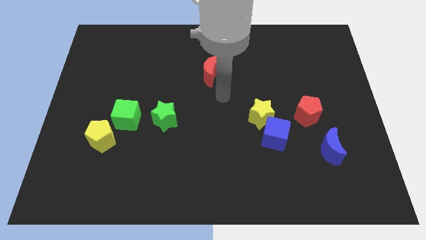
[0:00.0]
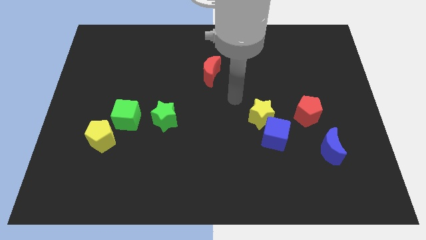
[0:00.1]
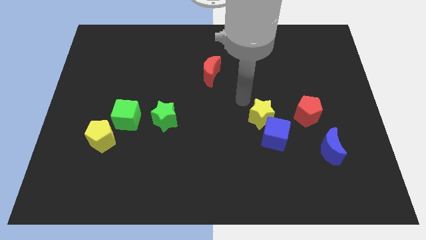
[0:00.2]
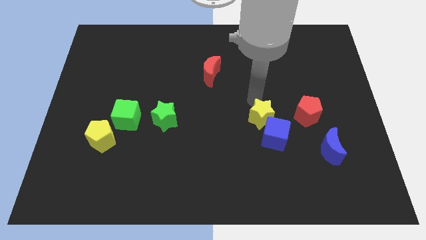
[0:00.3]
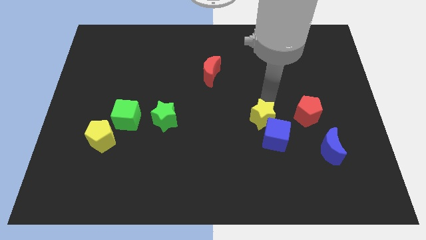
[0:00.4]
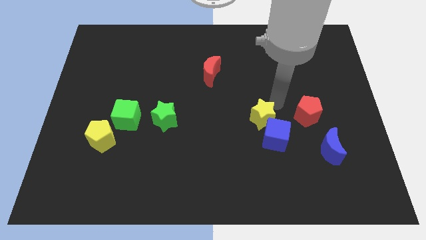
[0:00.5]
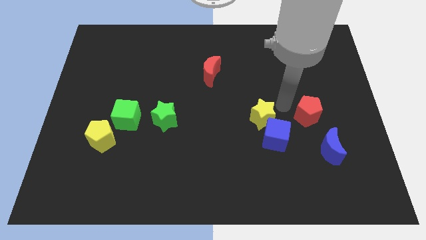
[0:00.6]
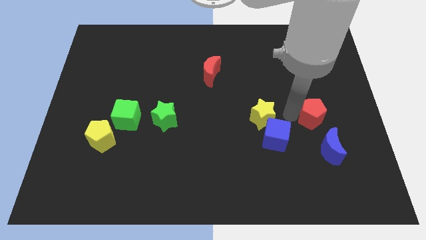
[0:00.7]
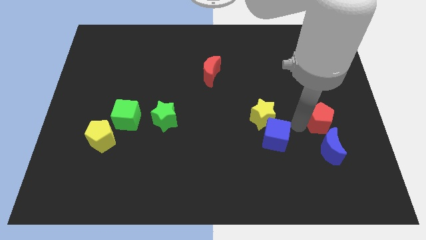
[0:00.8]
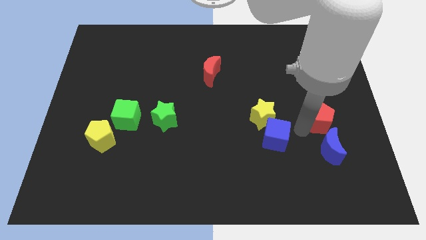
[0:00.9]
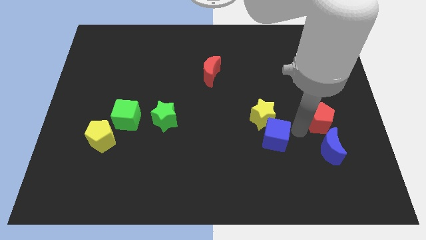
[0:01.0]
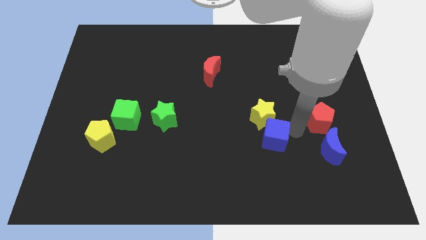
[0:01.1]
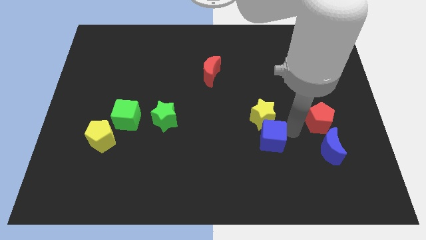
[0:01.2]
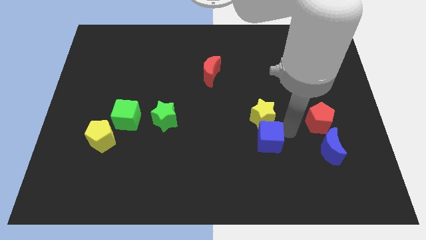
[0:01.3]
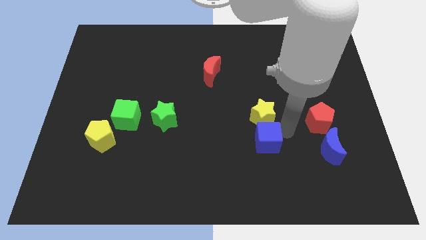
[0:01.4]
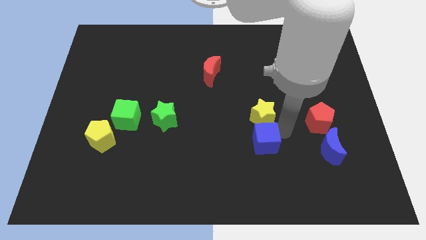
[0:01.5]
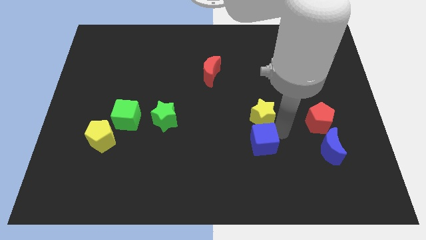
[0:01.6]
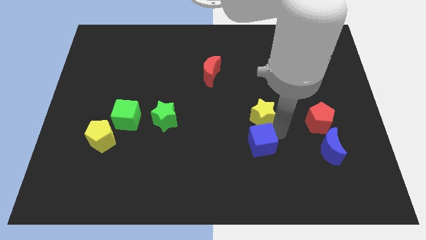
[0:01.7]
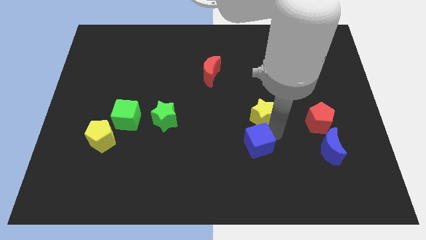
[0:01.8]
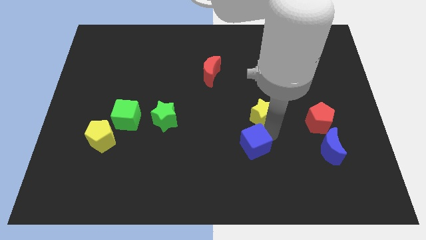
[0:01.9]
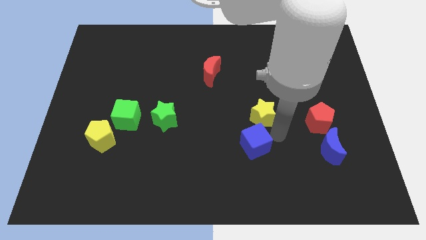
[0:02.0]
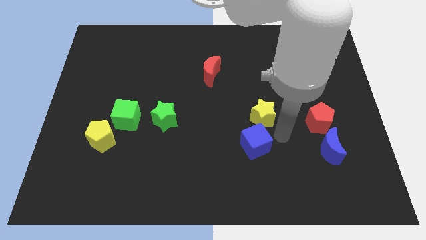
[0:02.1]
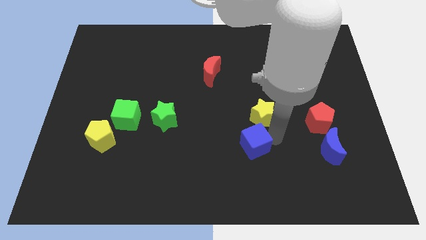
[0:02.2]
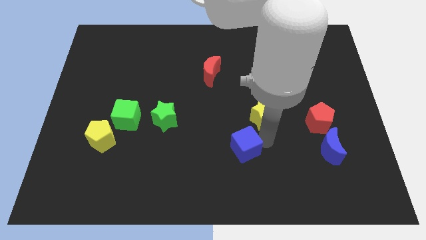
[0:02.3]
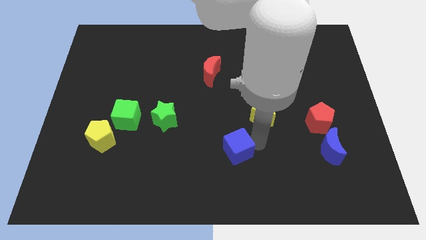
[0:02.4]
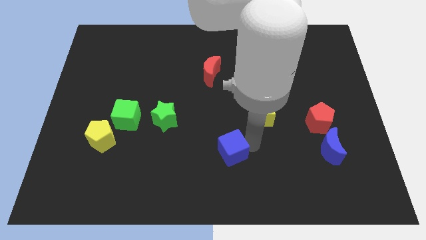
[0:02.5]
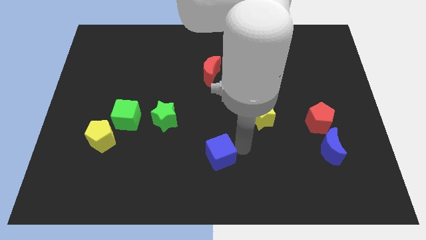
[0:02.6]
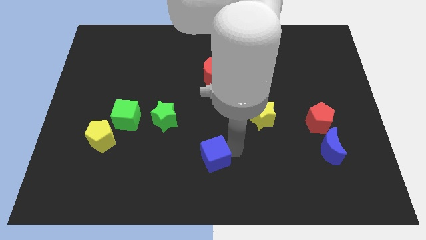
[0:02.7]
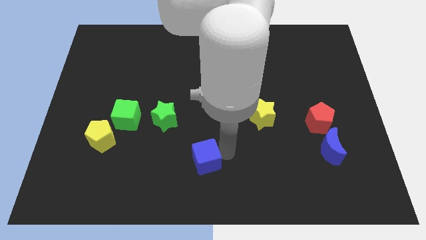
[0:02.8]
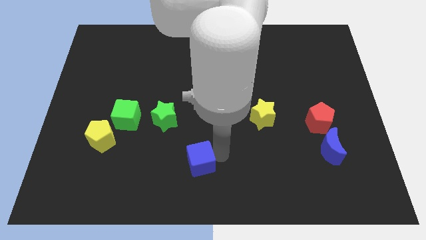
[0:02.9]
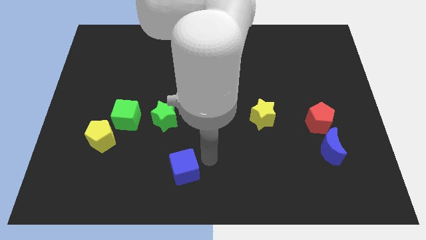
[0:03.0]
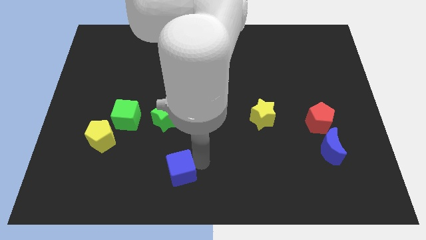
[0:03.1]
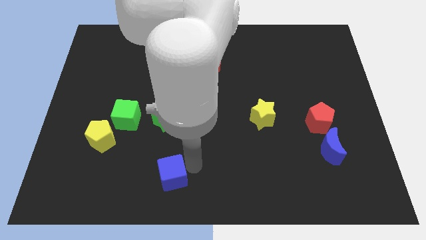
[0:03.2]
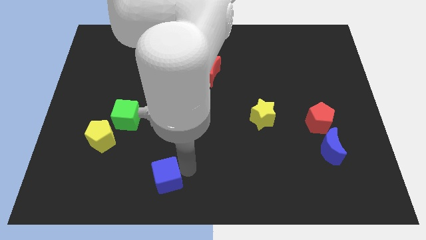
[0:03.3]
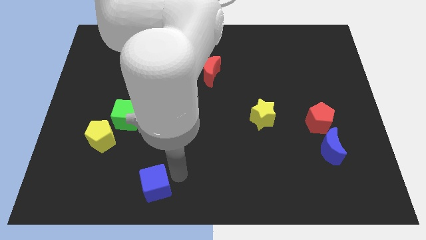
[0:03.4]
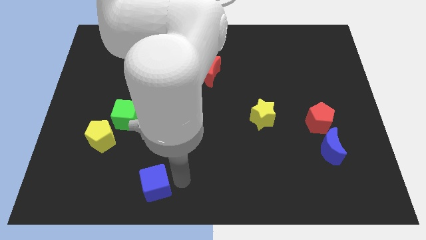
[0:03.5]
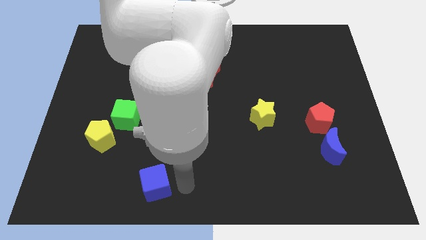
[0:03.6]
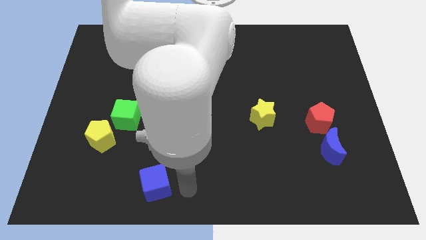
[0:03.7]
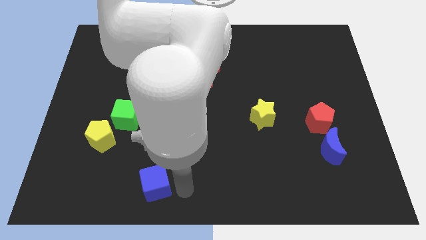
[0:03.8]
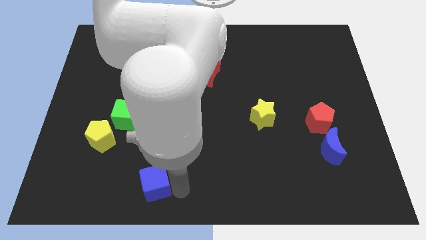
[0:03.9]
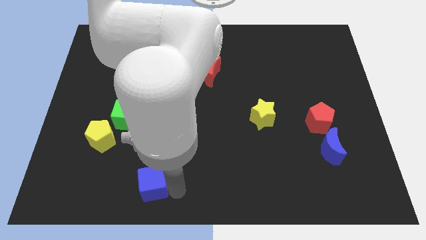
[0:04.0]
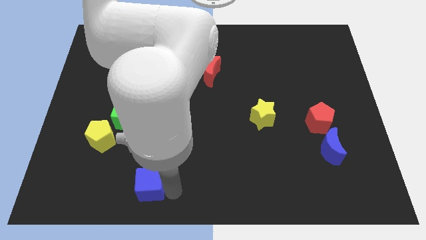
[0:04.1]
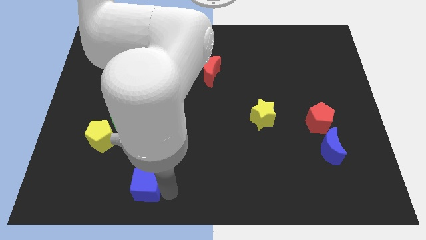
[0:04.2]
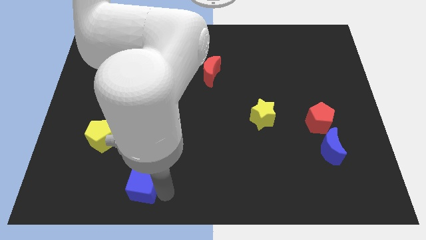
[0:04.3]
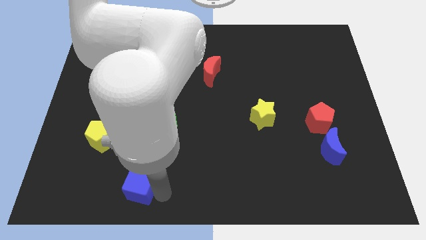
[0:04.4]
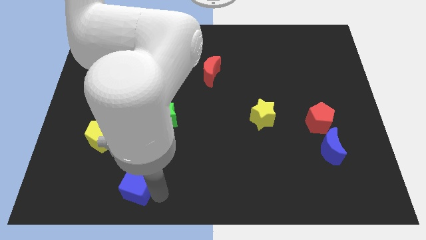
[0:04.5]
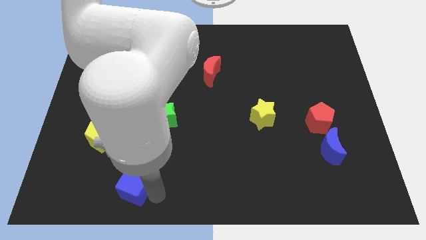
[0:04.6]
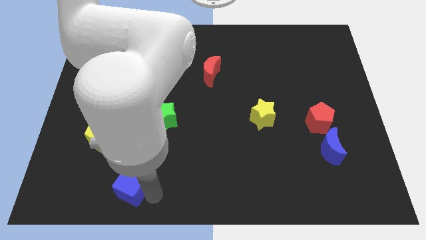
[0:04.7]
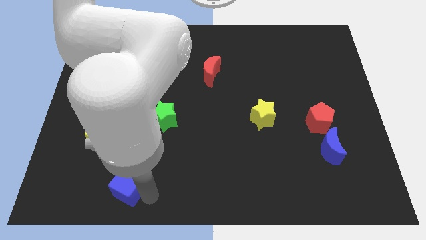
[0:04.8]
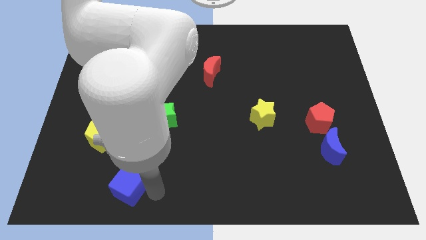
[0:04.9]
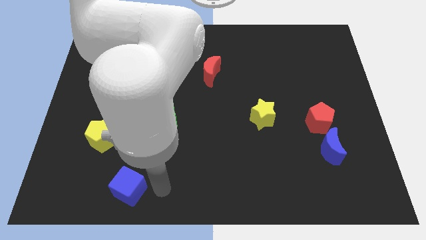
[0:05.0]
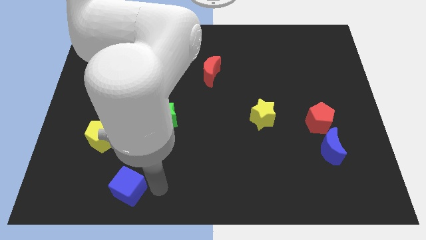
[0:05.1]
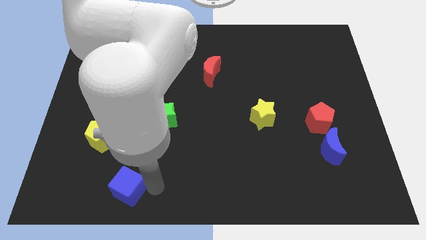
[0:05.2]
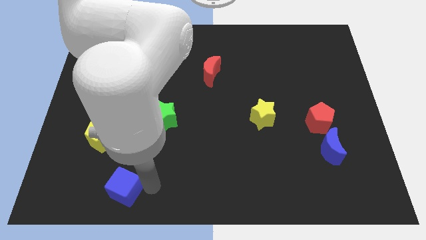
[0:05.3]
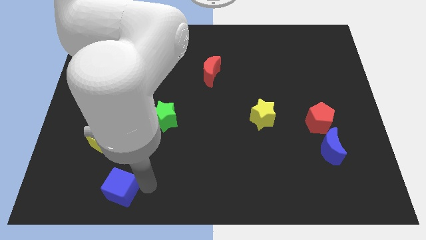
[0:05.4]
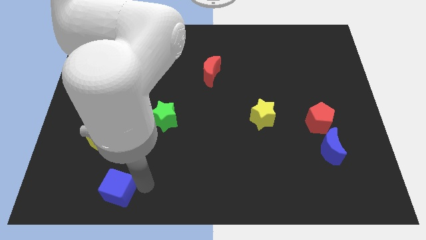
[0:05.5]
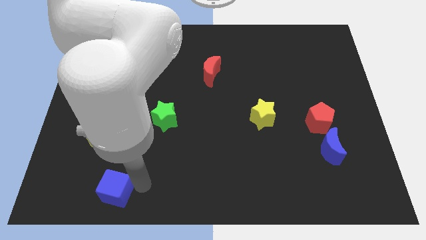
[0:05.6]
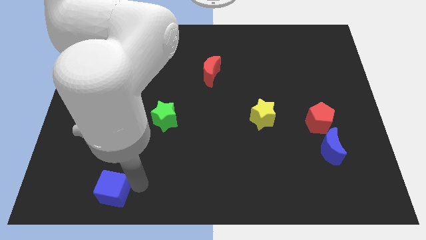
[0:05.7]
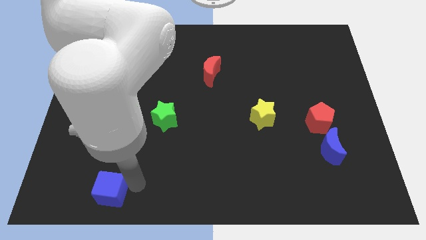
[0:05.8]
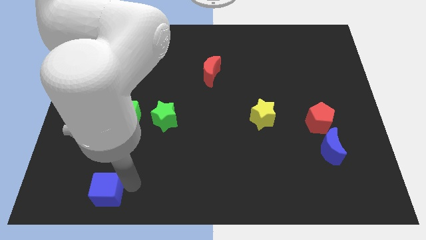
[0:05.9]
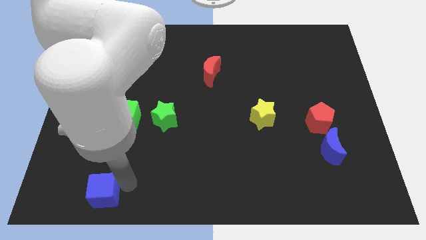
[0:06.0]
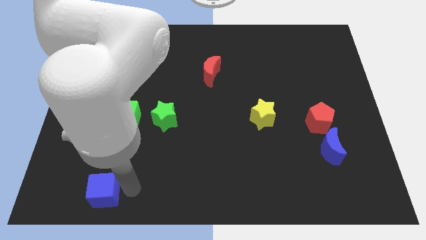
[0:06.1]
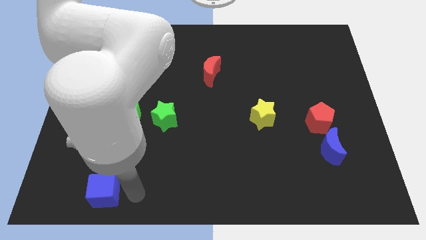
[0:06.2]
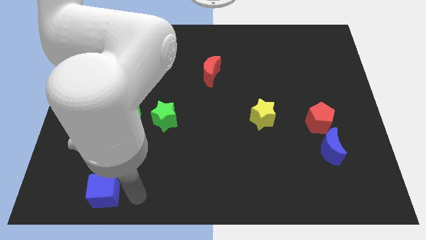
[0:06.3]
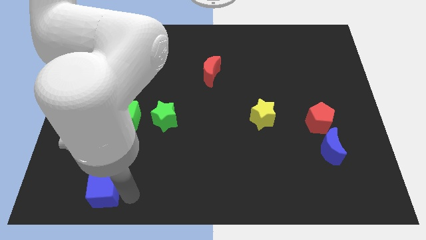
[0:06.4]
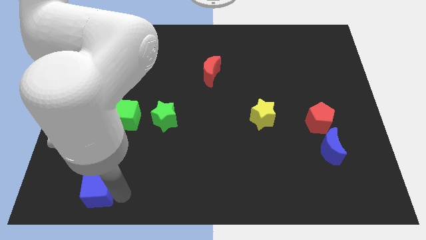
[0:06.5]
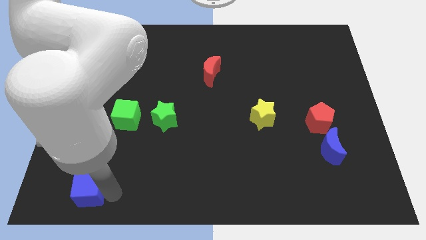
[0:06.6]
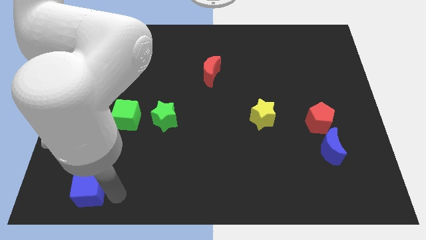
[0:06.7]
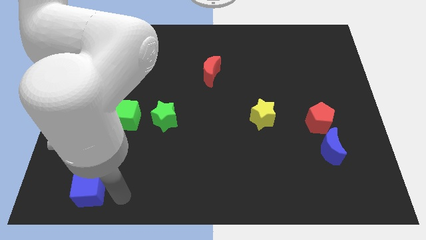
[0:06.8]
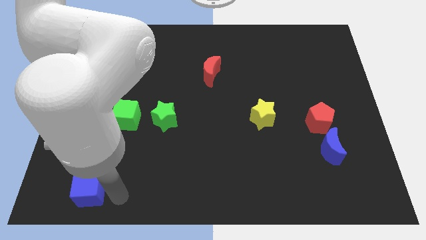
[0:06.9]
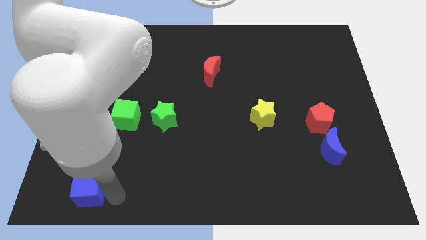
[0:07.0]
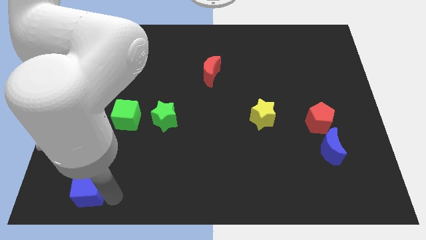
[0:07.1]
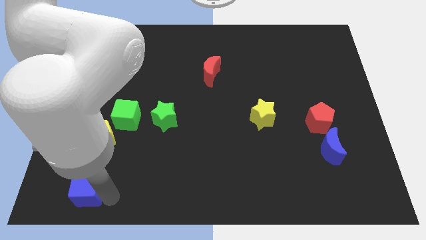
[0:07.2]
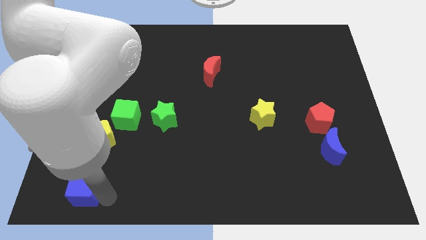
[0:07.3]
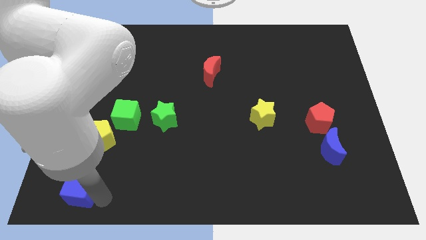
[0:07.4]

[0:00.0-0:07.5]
slide the blue cube to the bottom left of the board
